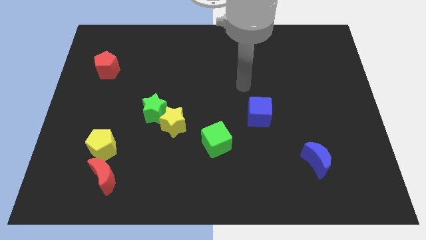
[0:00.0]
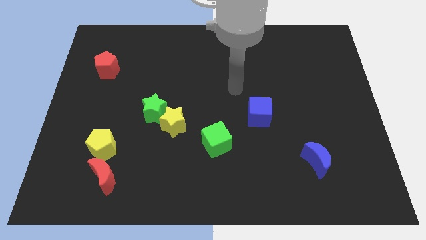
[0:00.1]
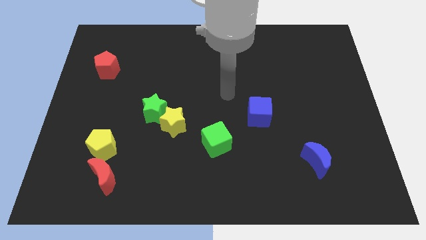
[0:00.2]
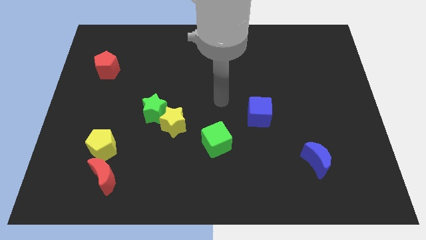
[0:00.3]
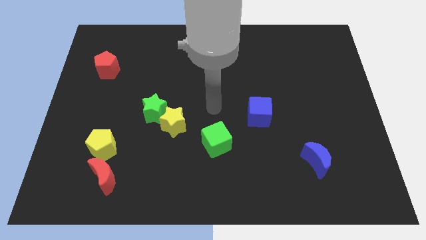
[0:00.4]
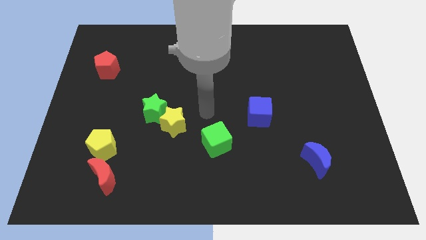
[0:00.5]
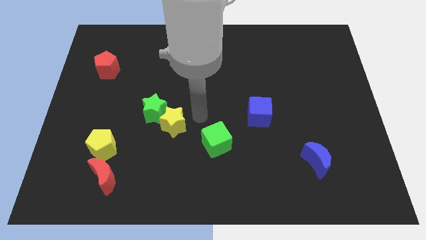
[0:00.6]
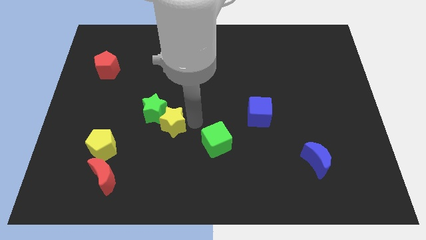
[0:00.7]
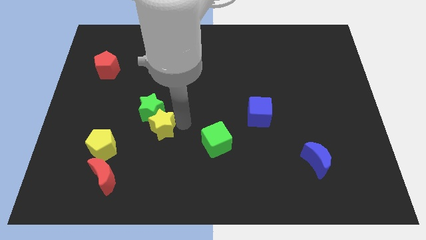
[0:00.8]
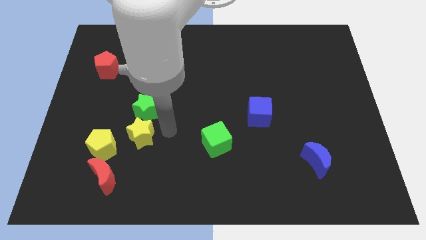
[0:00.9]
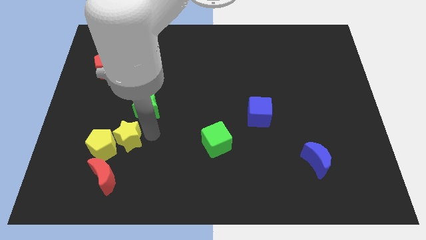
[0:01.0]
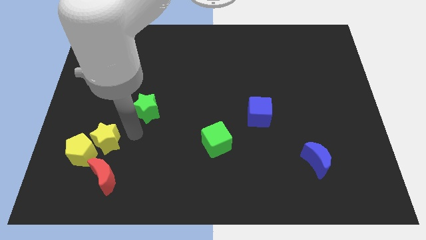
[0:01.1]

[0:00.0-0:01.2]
separate the green star from the yellow star

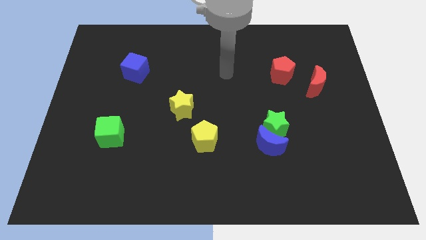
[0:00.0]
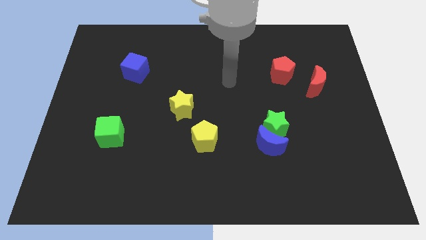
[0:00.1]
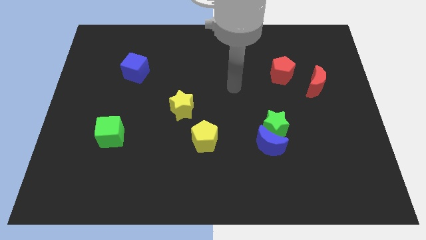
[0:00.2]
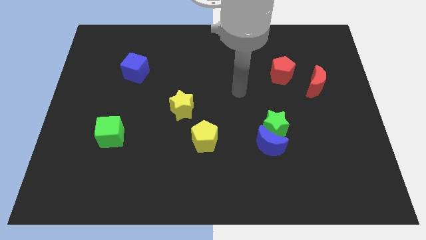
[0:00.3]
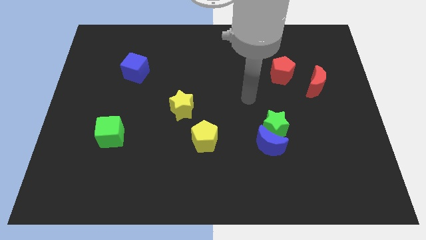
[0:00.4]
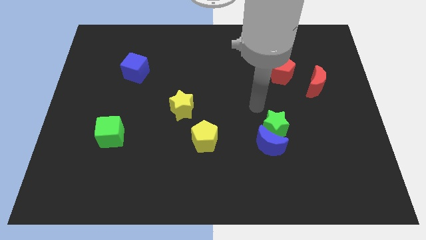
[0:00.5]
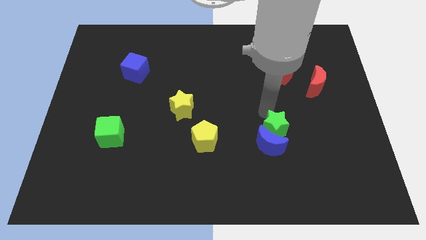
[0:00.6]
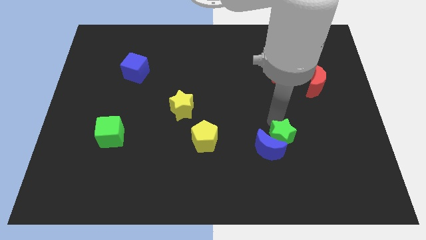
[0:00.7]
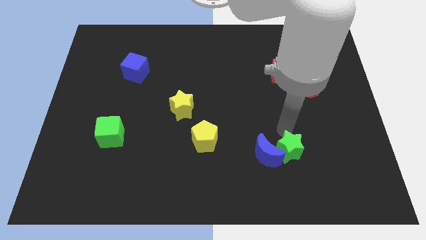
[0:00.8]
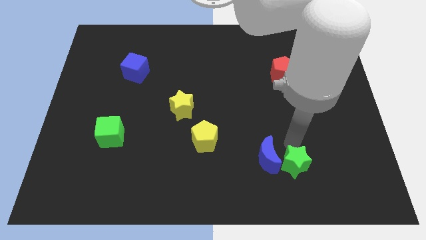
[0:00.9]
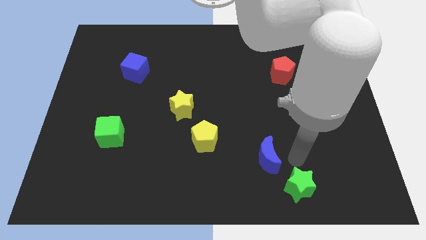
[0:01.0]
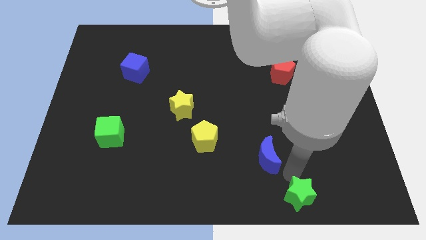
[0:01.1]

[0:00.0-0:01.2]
separate the blue moon from the green star

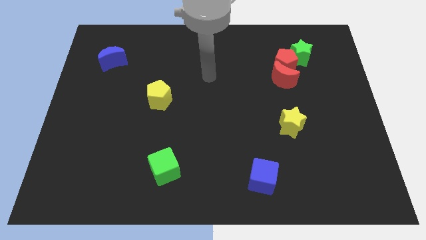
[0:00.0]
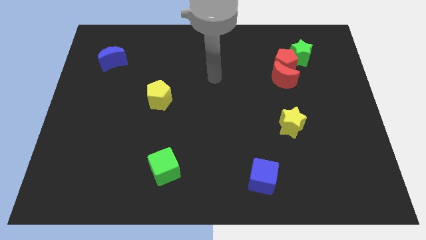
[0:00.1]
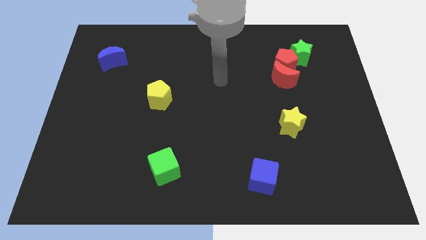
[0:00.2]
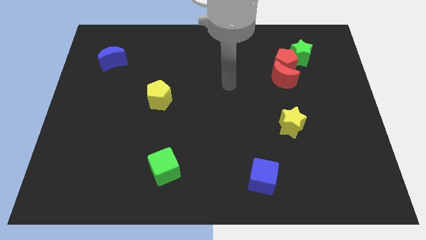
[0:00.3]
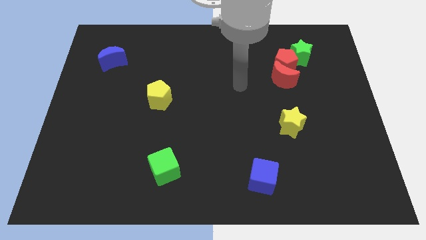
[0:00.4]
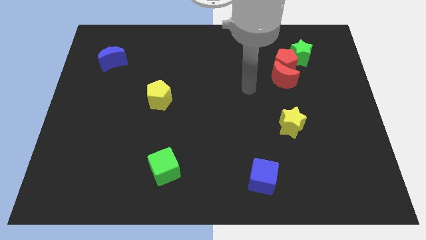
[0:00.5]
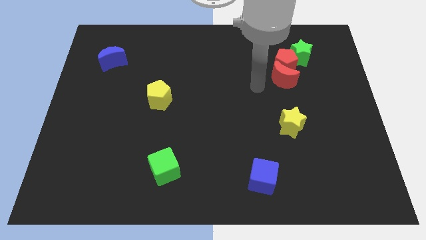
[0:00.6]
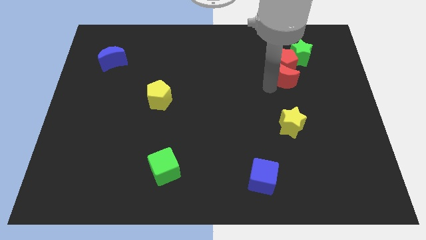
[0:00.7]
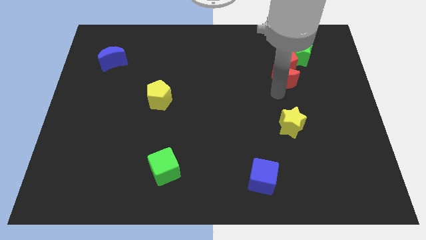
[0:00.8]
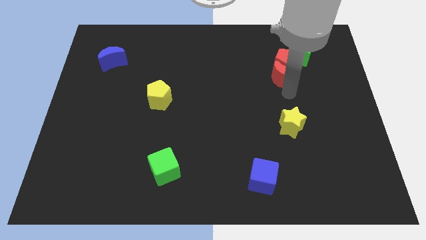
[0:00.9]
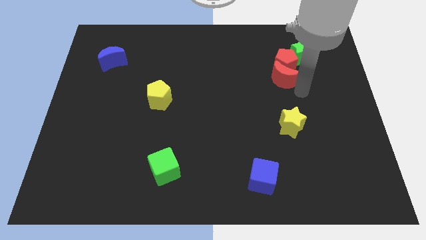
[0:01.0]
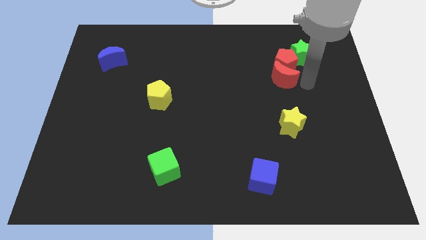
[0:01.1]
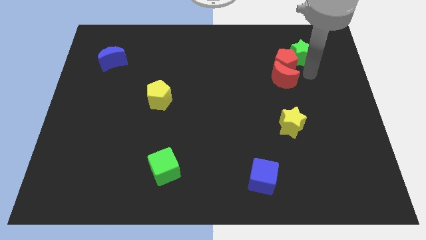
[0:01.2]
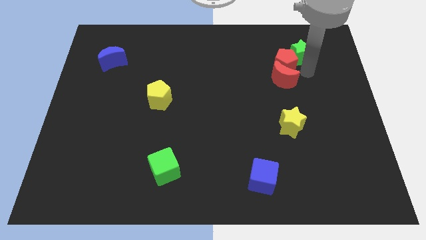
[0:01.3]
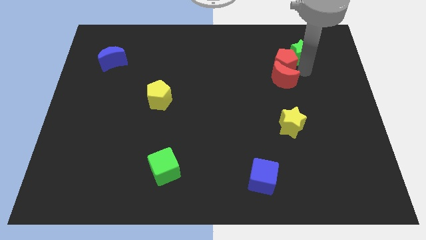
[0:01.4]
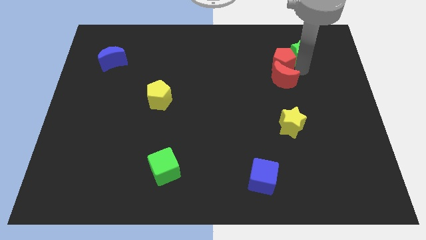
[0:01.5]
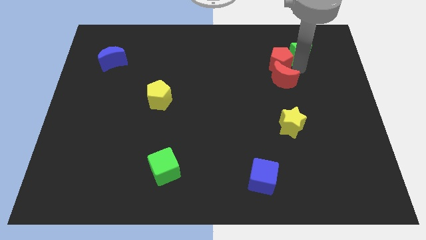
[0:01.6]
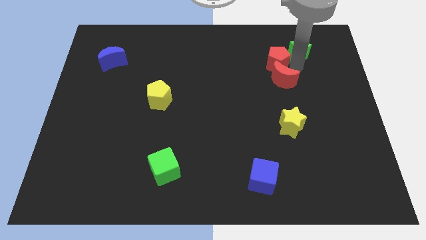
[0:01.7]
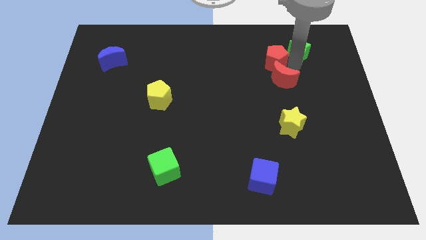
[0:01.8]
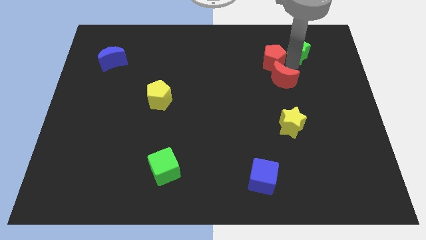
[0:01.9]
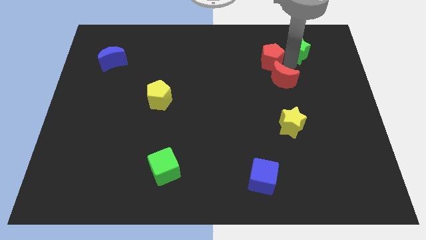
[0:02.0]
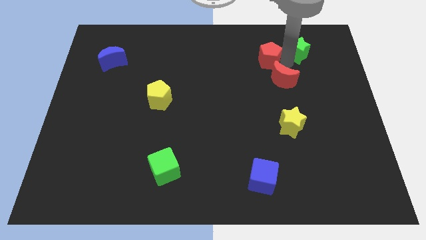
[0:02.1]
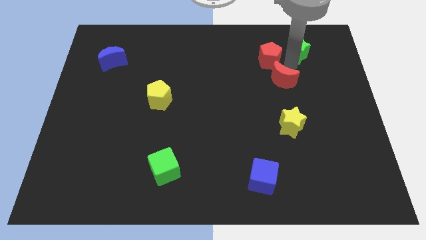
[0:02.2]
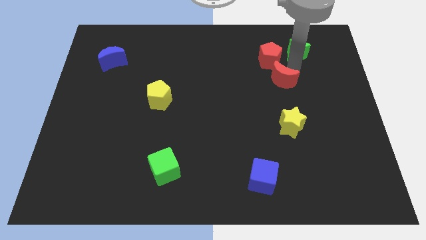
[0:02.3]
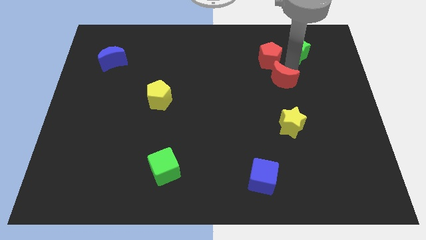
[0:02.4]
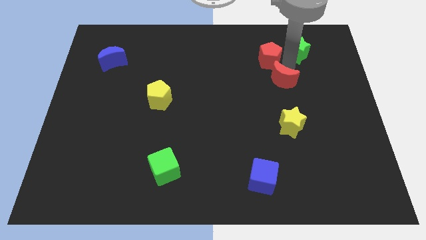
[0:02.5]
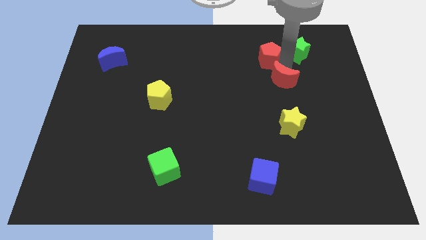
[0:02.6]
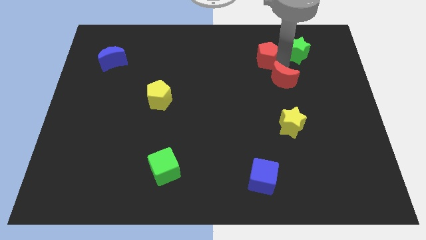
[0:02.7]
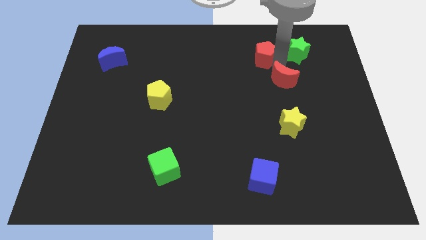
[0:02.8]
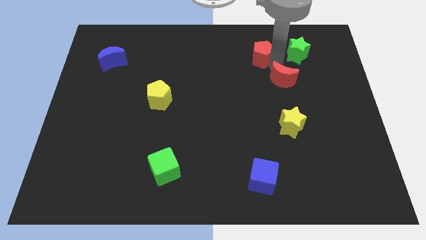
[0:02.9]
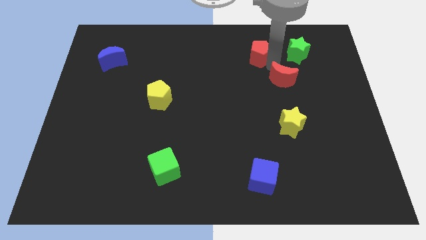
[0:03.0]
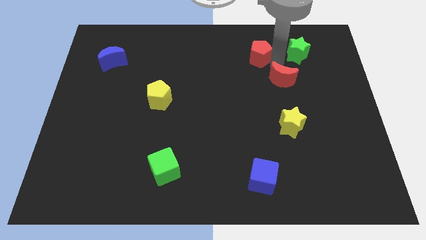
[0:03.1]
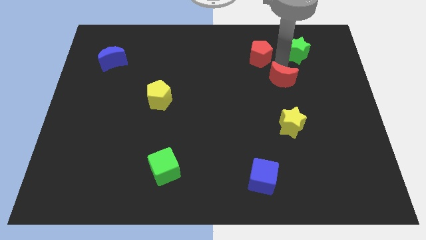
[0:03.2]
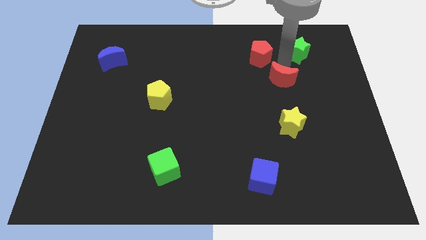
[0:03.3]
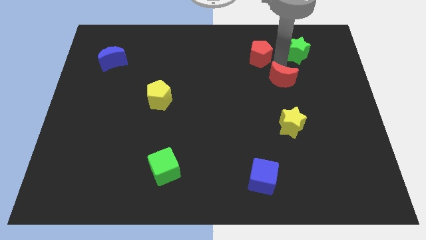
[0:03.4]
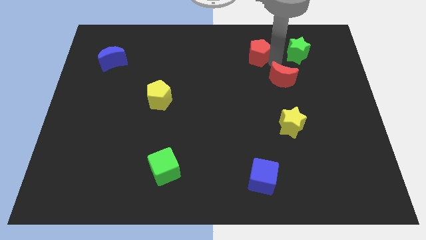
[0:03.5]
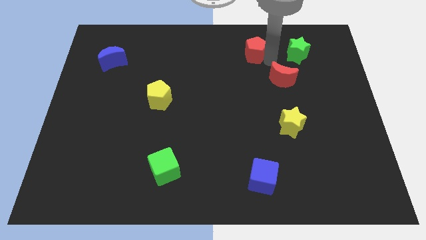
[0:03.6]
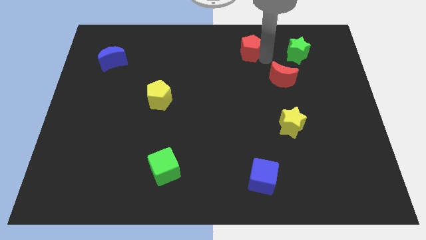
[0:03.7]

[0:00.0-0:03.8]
move the red pentagon away from the red moon and green star

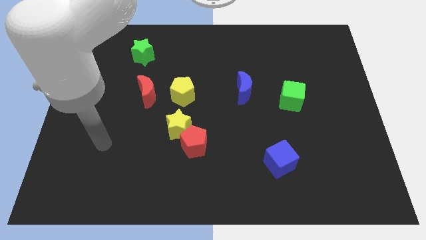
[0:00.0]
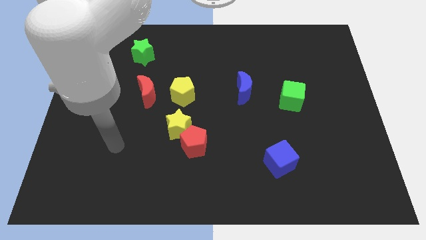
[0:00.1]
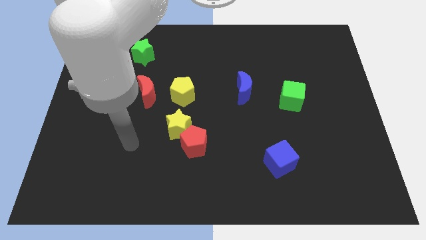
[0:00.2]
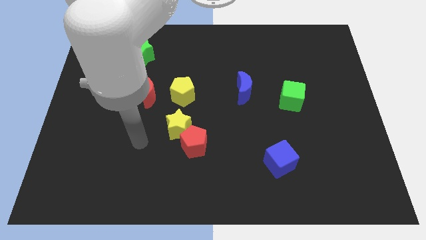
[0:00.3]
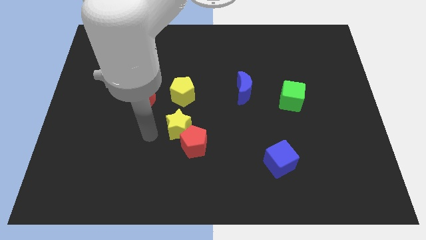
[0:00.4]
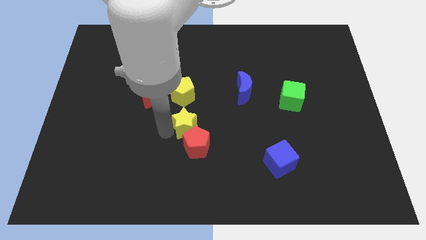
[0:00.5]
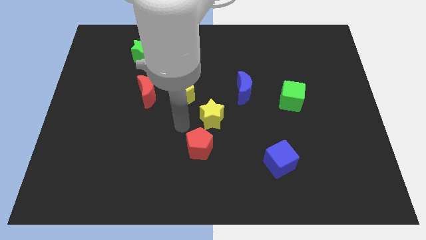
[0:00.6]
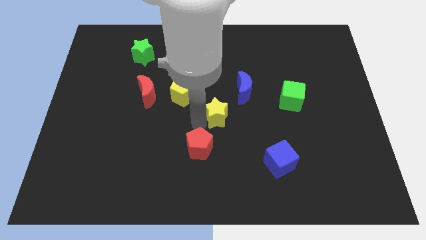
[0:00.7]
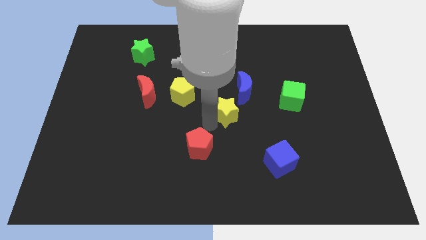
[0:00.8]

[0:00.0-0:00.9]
pull the red pentagon apart from the yellow star

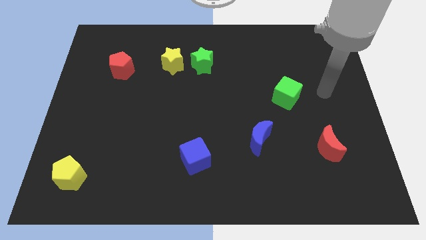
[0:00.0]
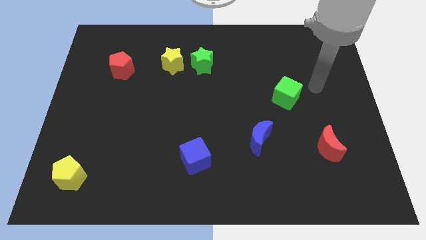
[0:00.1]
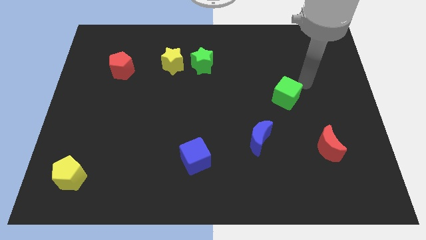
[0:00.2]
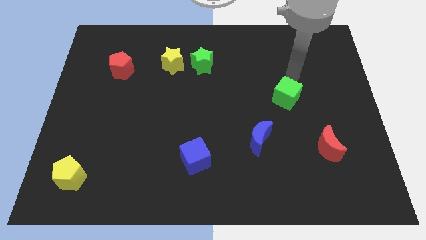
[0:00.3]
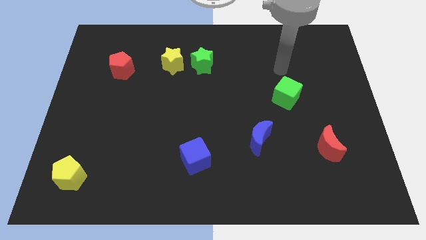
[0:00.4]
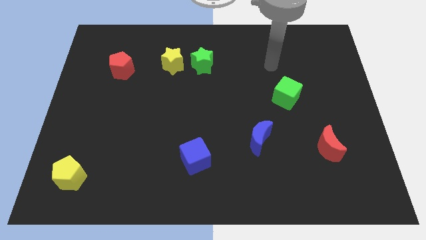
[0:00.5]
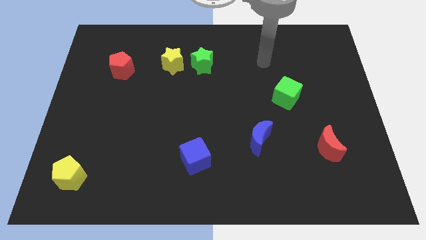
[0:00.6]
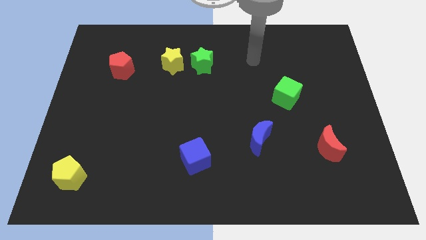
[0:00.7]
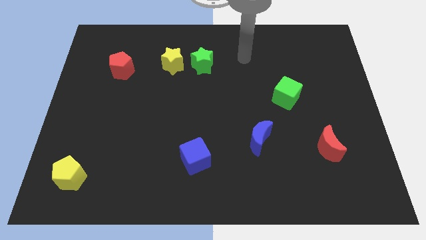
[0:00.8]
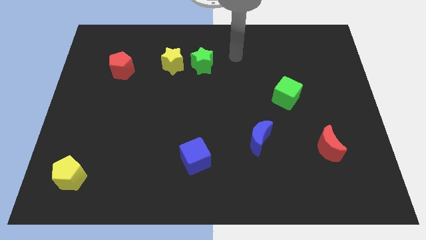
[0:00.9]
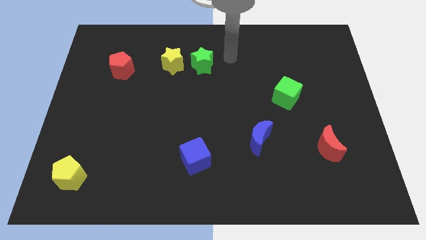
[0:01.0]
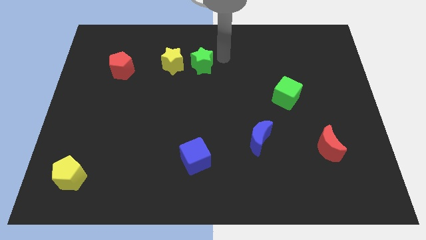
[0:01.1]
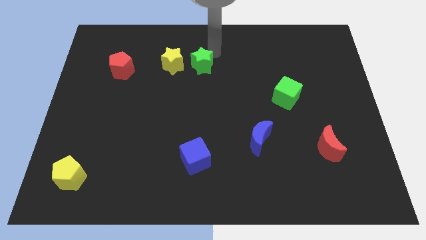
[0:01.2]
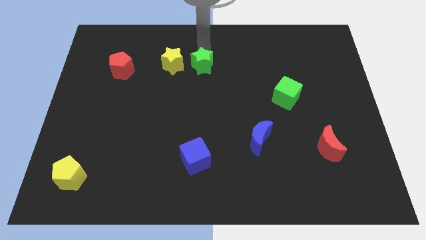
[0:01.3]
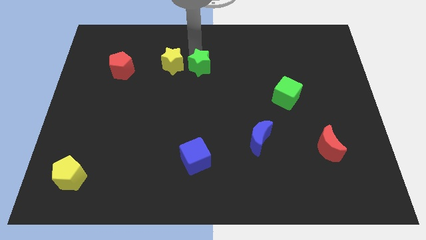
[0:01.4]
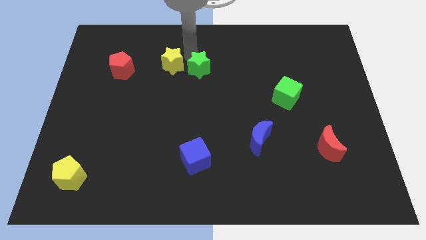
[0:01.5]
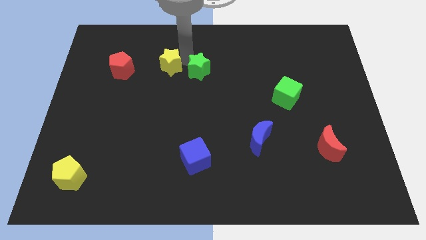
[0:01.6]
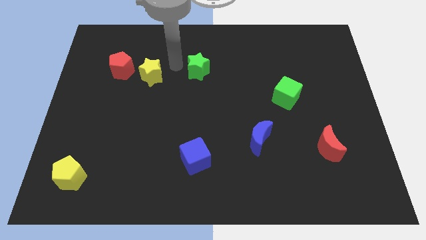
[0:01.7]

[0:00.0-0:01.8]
move the green star away from the yellow star

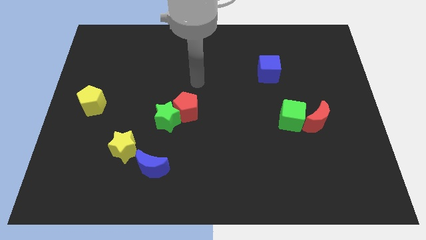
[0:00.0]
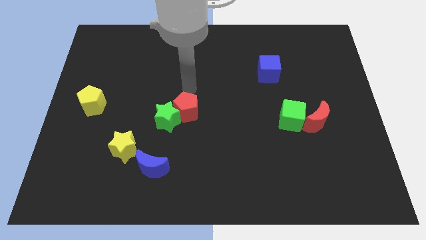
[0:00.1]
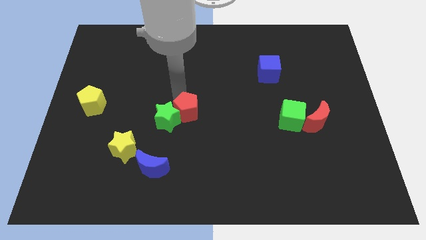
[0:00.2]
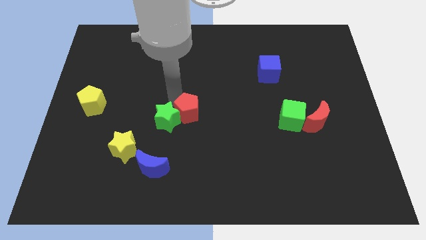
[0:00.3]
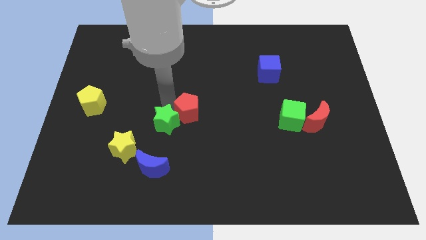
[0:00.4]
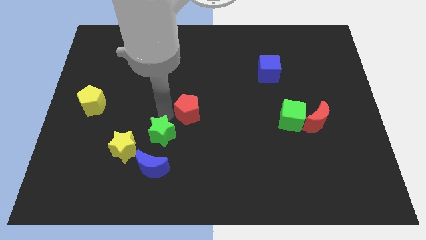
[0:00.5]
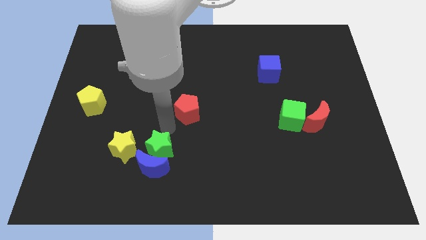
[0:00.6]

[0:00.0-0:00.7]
separate the red pentagon from the green star
